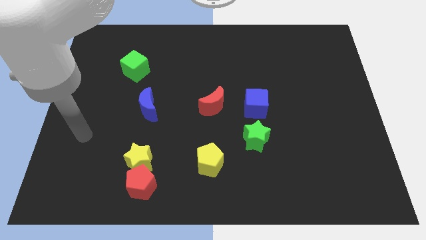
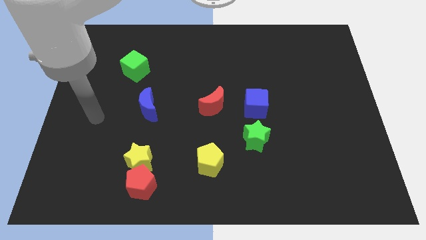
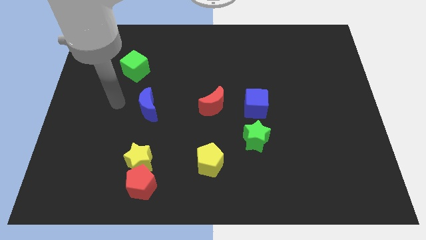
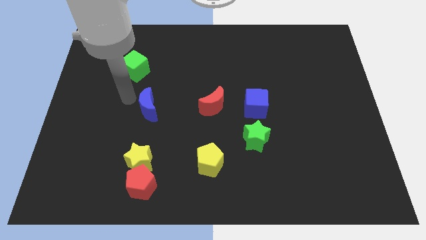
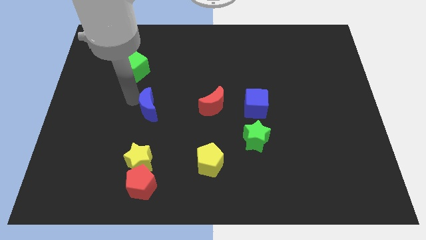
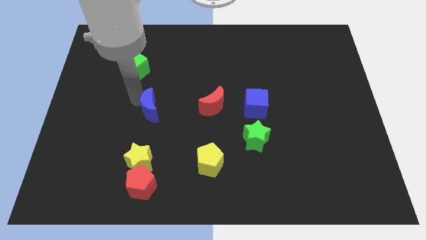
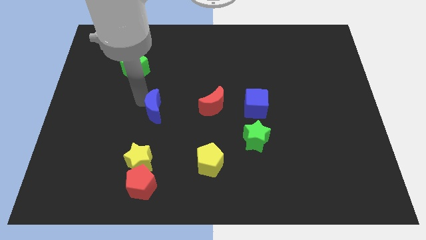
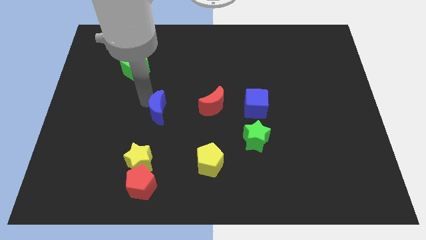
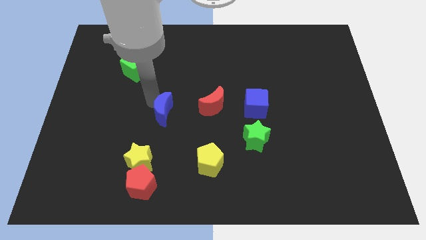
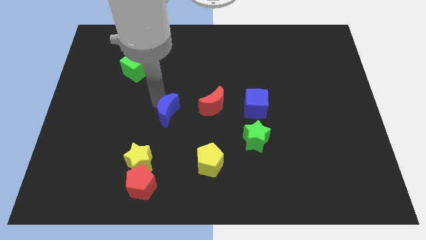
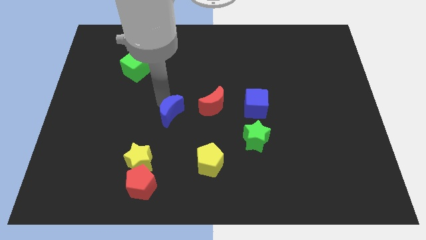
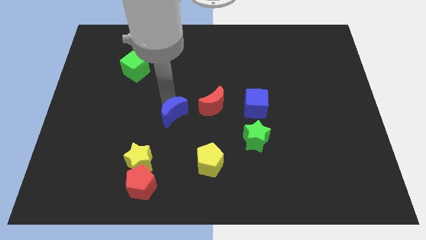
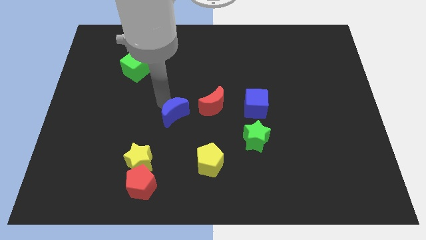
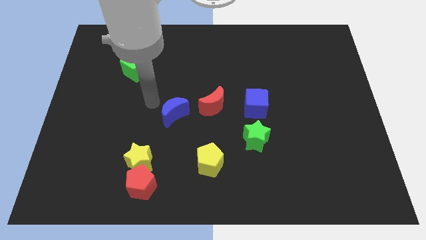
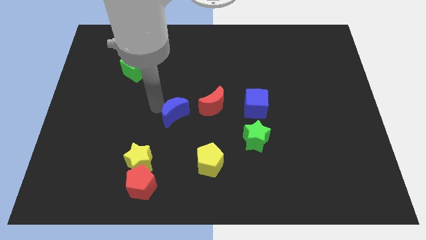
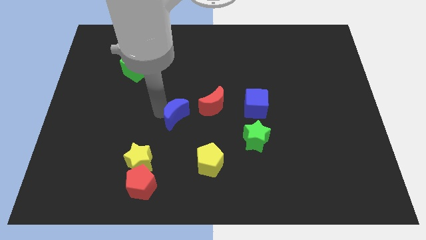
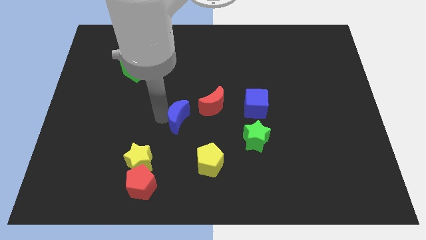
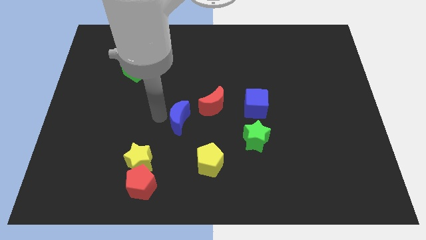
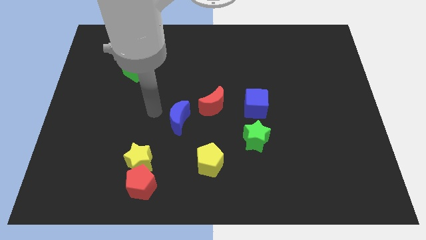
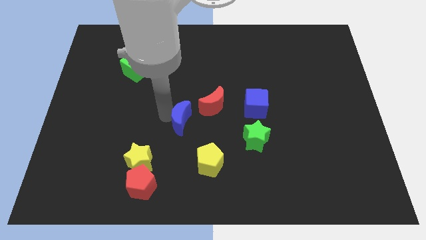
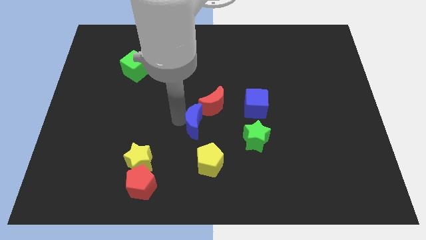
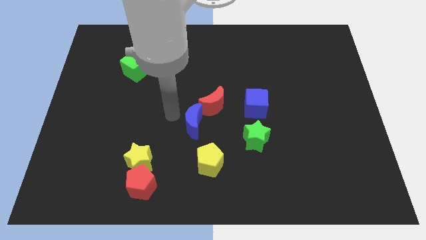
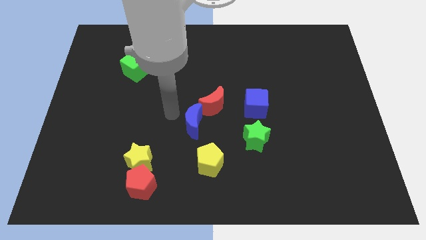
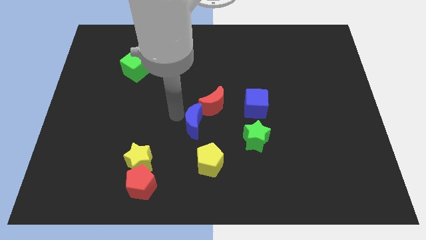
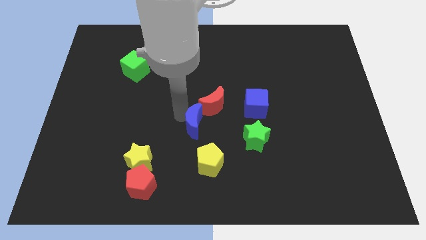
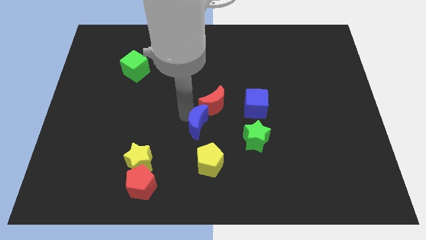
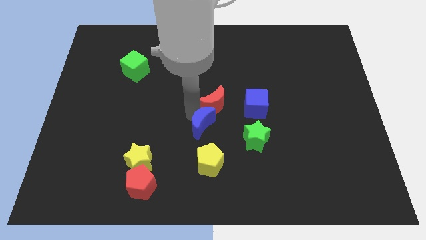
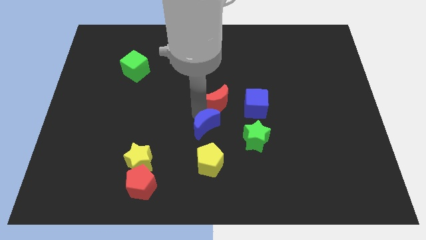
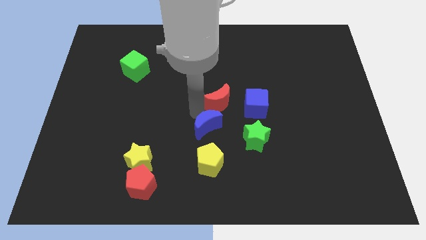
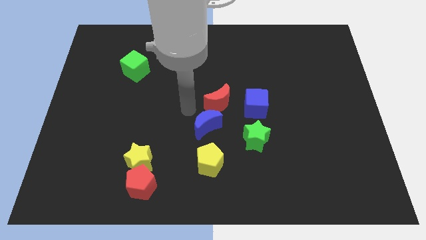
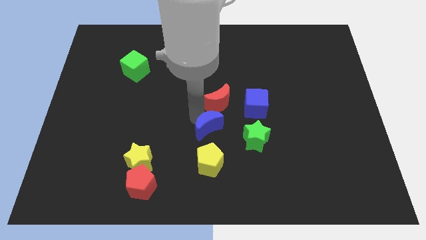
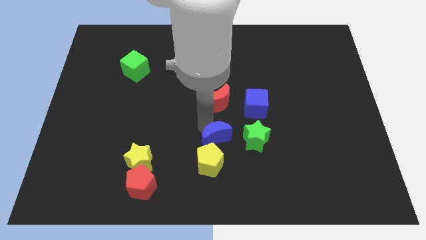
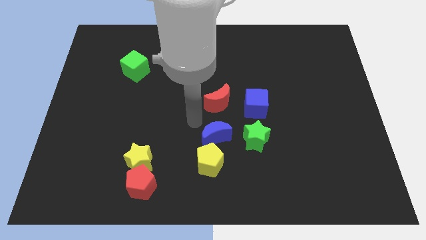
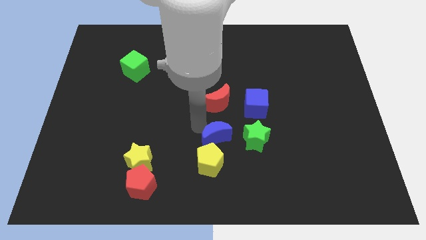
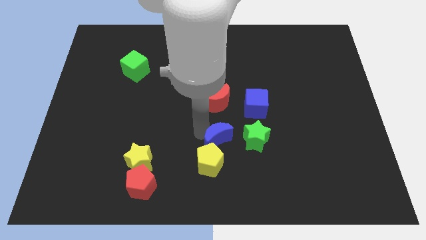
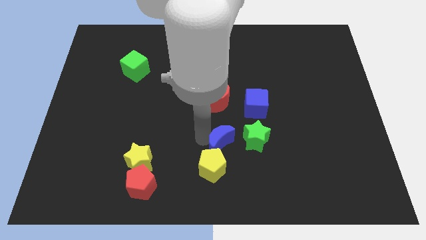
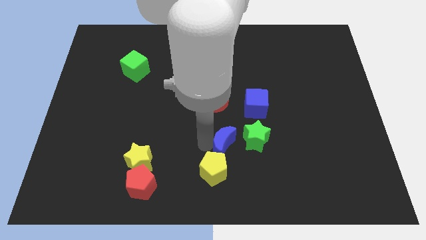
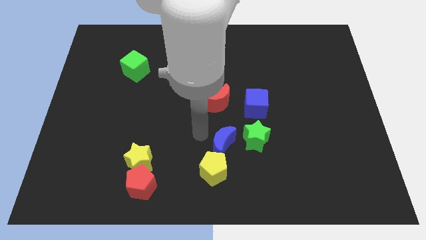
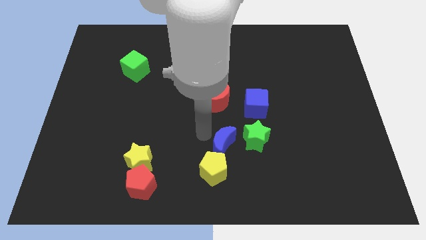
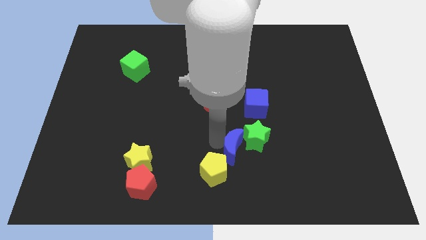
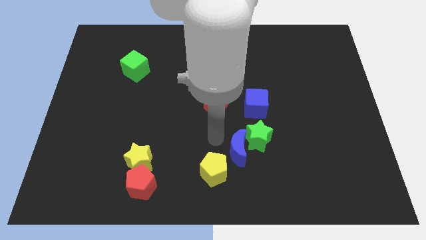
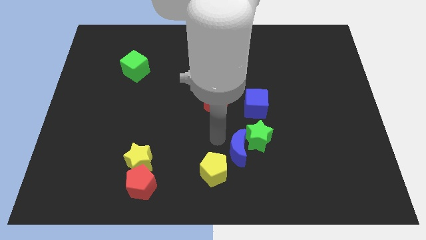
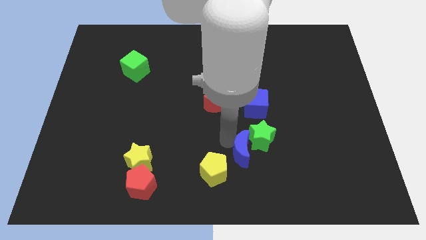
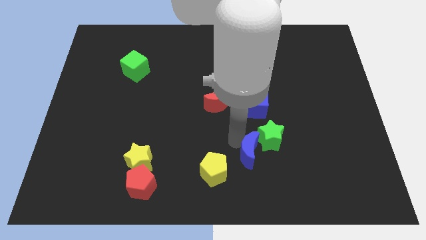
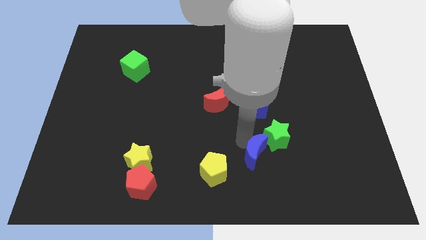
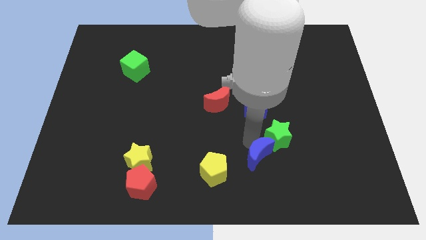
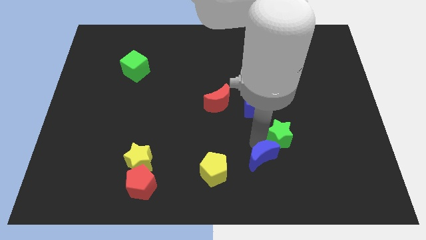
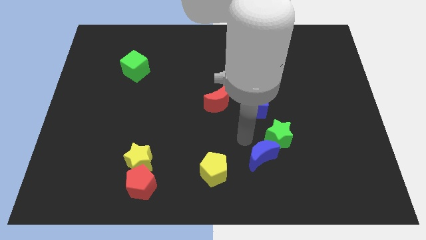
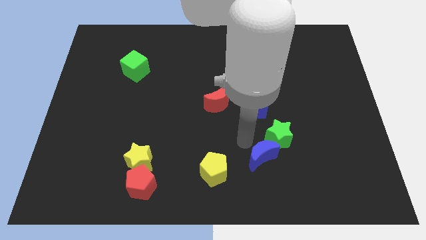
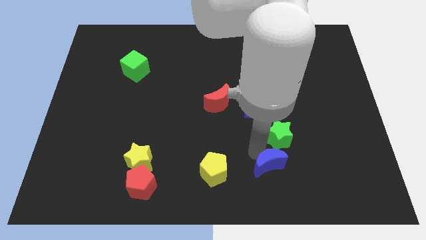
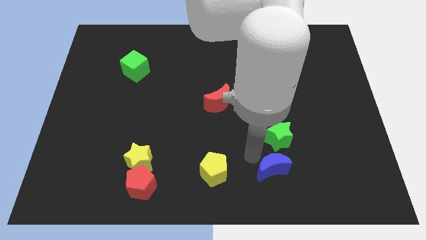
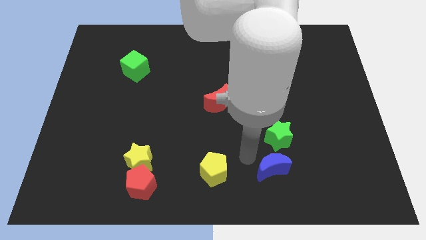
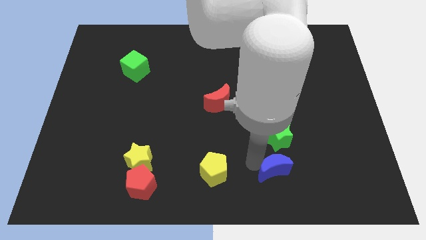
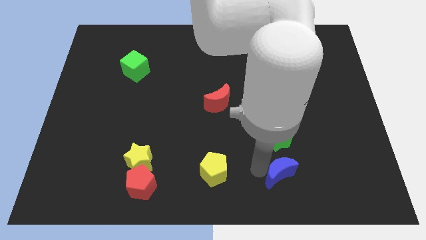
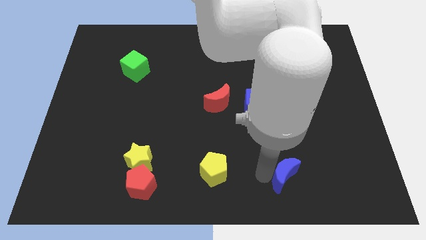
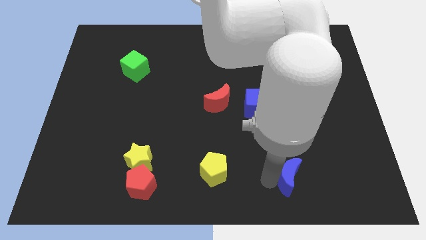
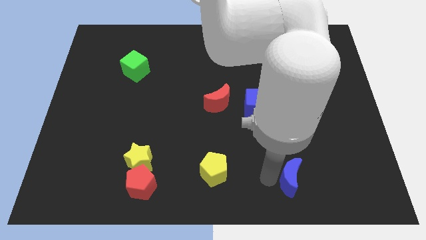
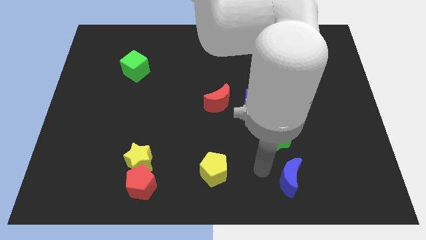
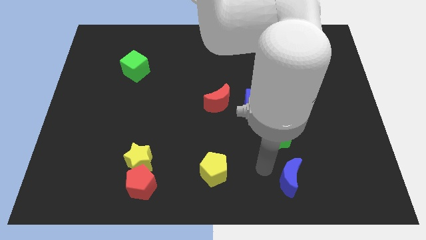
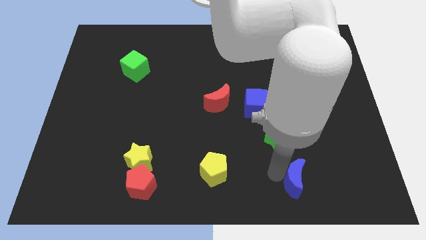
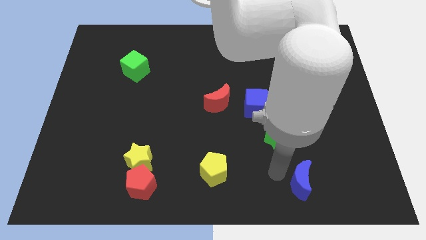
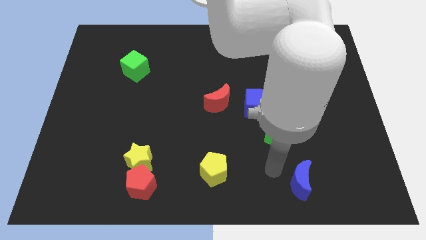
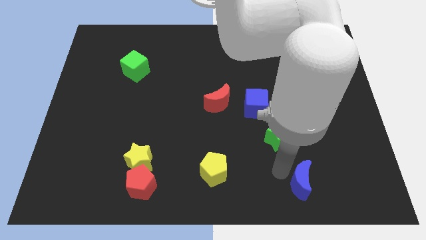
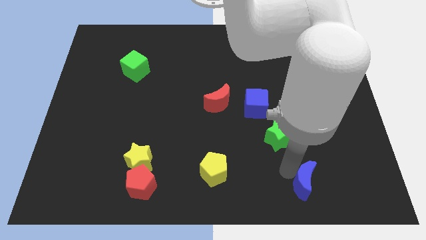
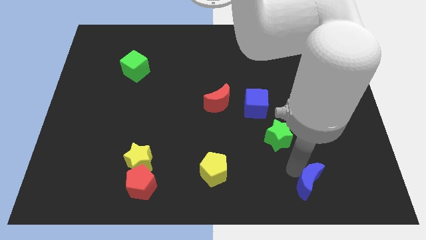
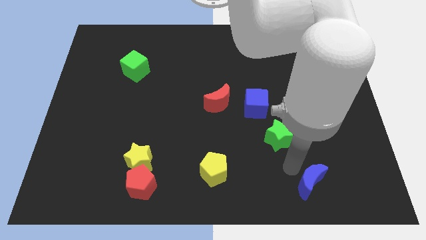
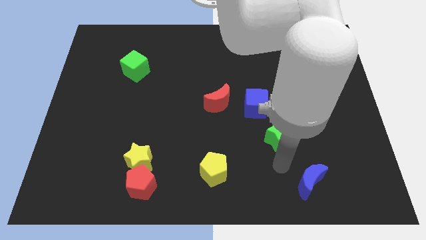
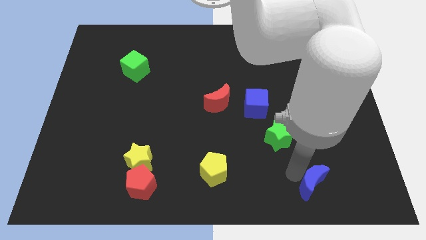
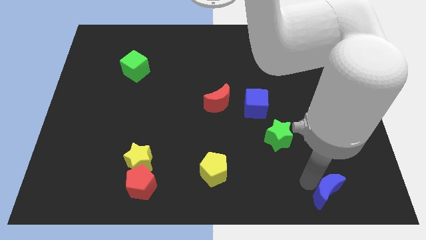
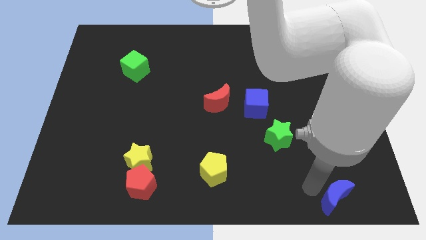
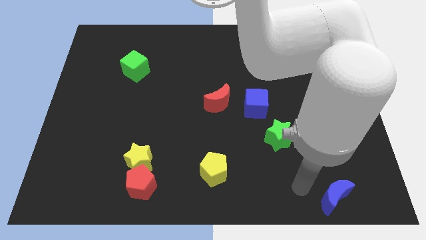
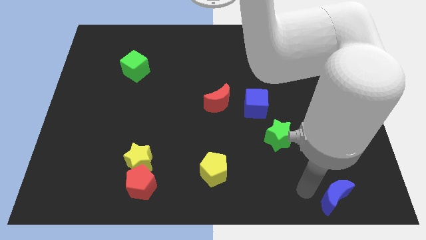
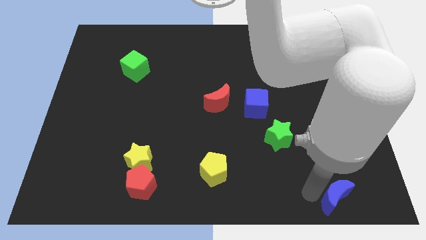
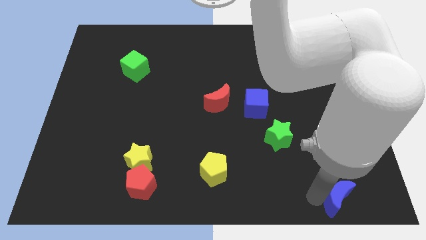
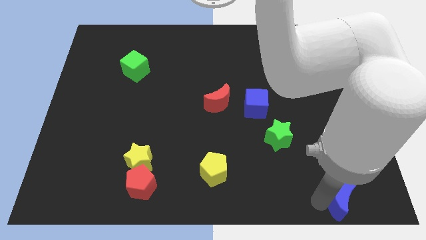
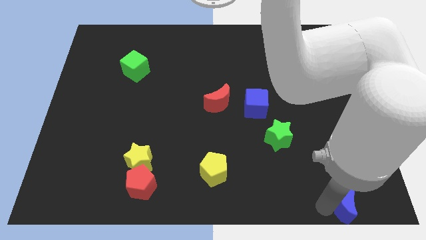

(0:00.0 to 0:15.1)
put the blue moon to the lower right corner
